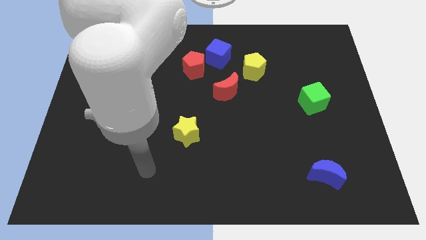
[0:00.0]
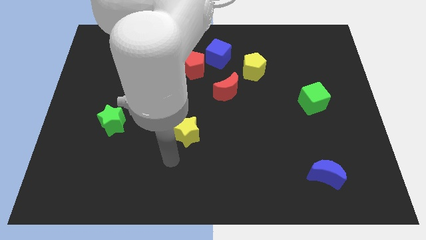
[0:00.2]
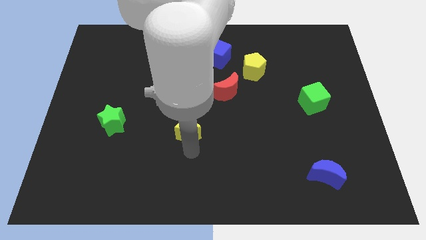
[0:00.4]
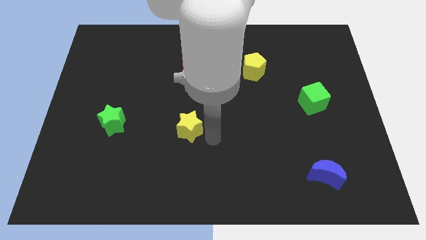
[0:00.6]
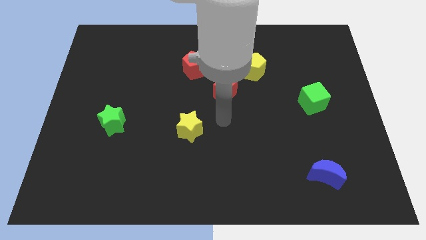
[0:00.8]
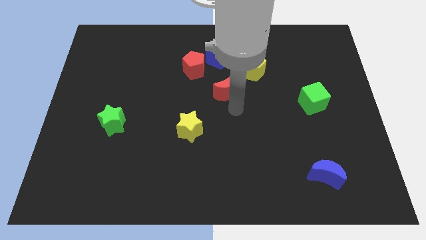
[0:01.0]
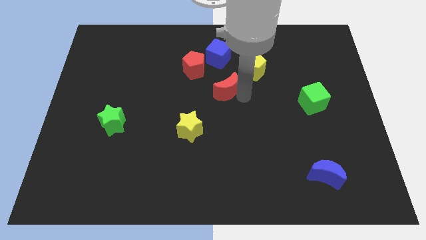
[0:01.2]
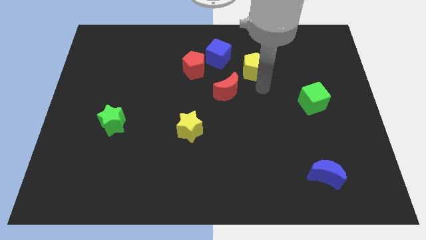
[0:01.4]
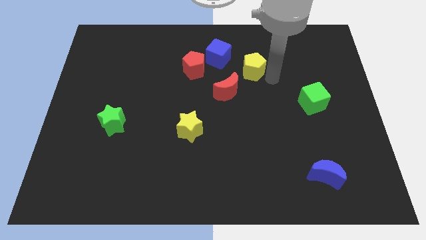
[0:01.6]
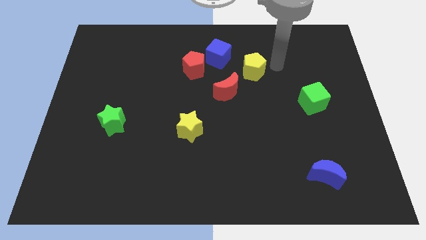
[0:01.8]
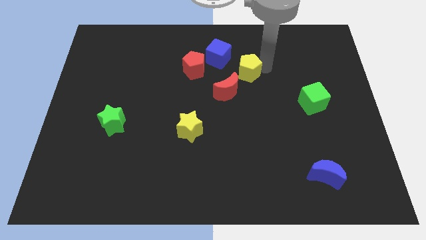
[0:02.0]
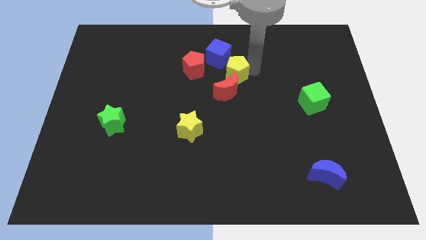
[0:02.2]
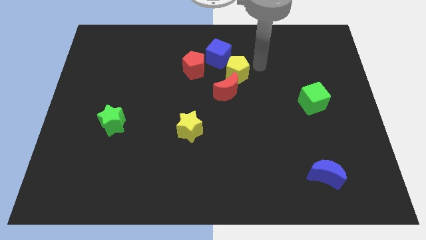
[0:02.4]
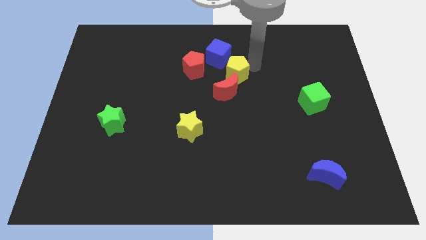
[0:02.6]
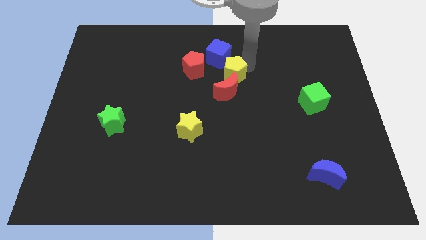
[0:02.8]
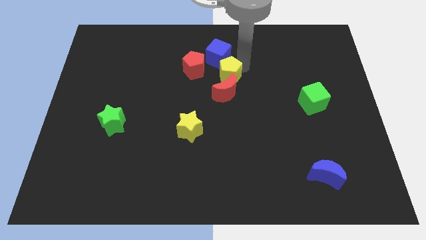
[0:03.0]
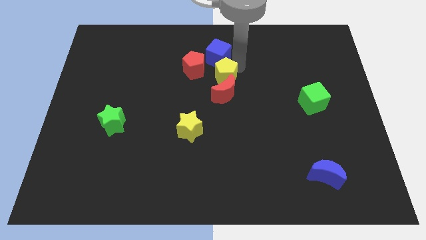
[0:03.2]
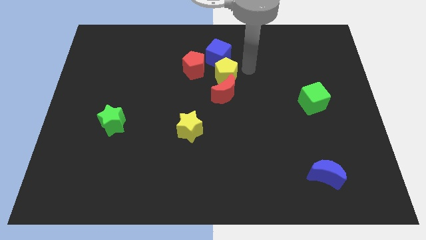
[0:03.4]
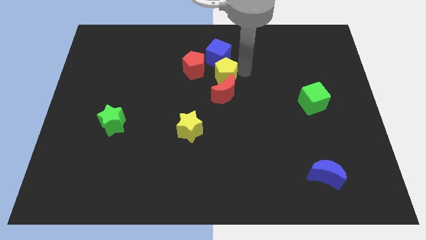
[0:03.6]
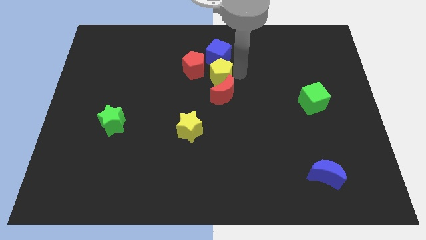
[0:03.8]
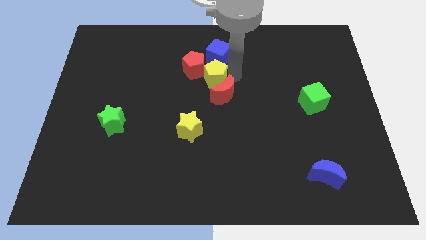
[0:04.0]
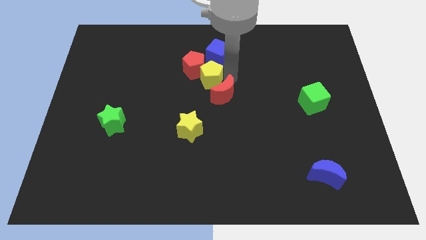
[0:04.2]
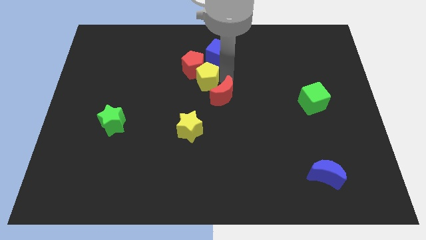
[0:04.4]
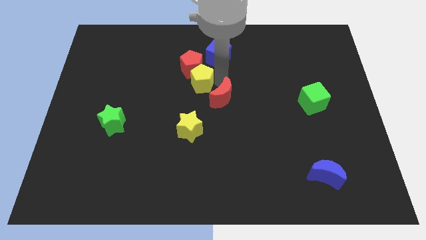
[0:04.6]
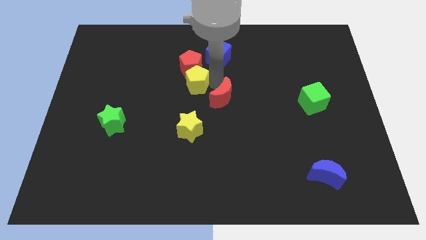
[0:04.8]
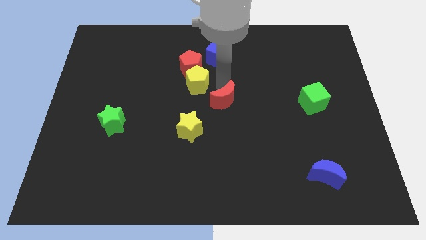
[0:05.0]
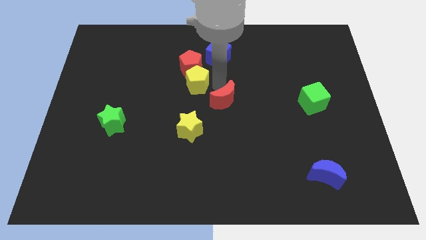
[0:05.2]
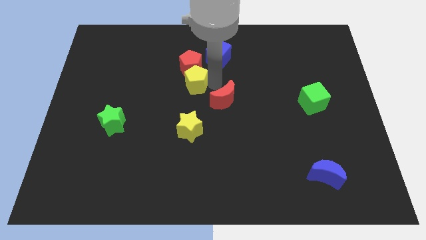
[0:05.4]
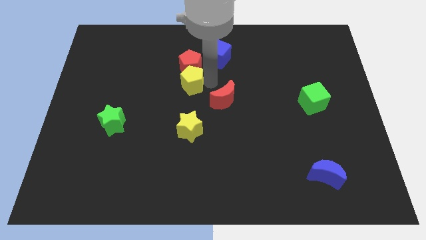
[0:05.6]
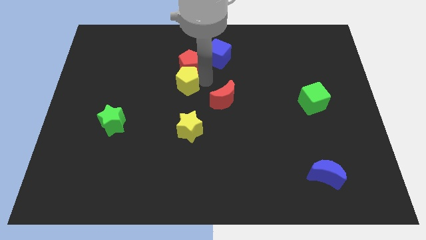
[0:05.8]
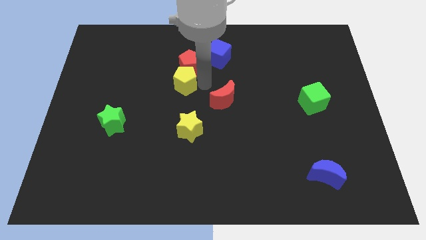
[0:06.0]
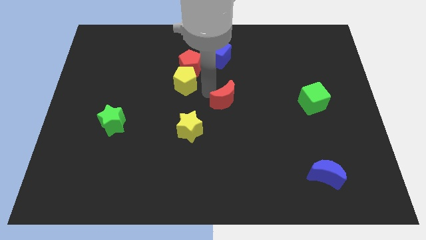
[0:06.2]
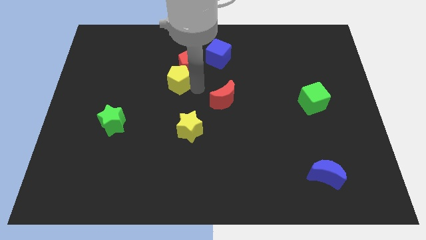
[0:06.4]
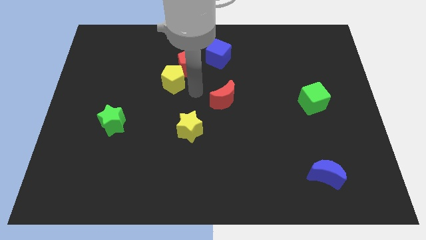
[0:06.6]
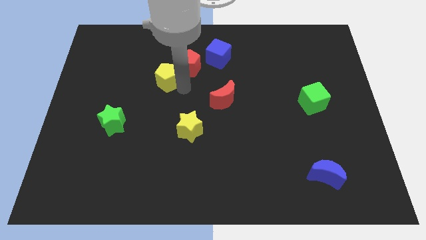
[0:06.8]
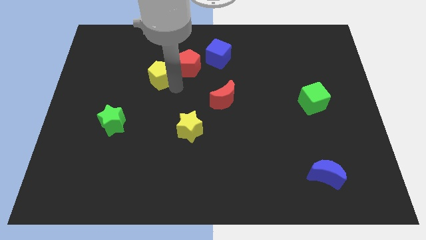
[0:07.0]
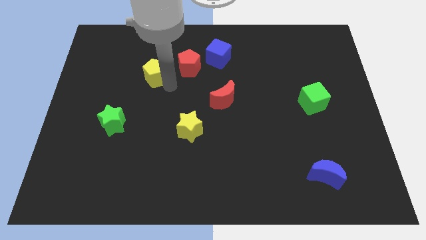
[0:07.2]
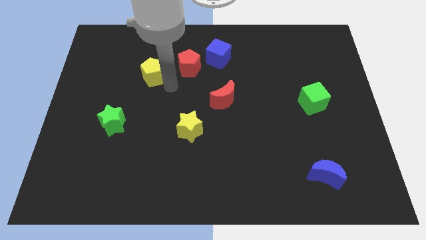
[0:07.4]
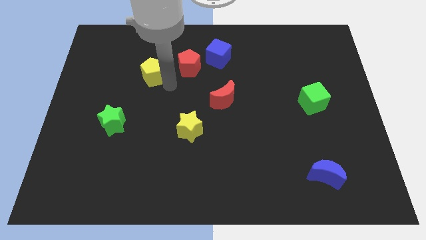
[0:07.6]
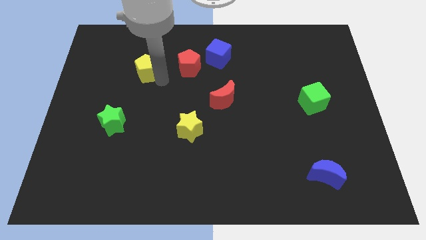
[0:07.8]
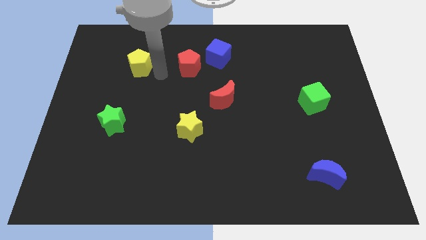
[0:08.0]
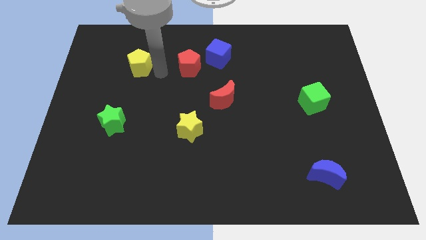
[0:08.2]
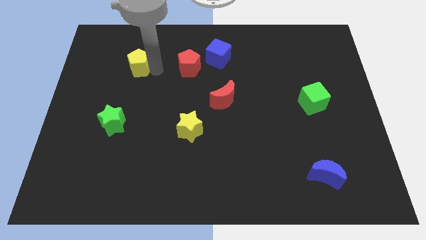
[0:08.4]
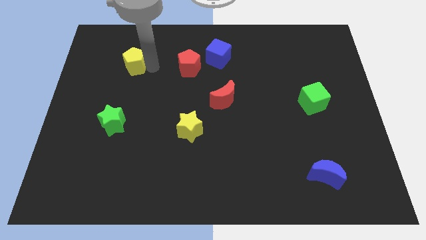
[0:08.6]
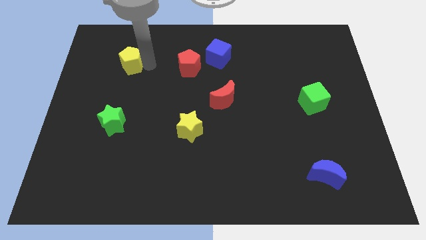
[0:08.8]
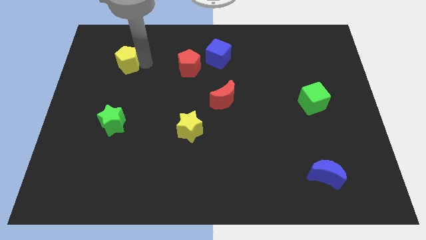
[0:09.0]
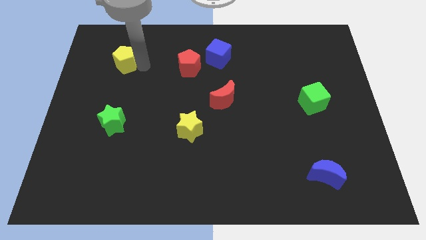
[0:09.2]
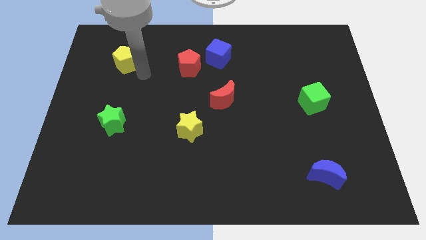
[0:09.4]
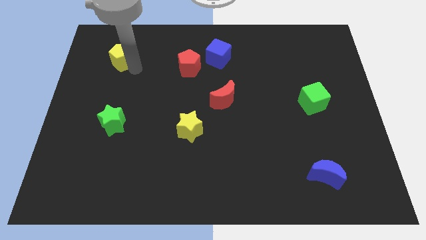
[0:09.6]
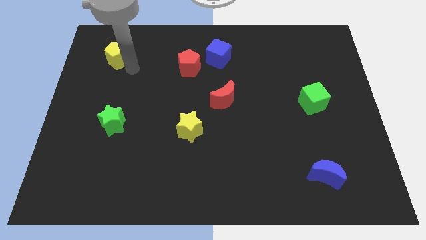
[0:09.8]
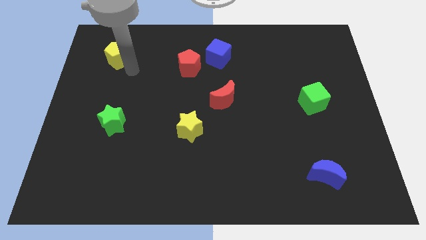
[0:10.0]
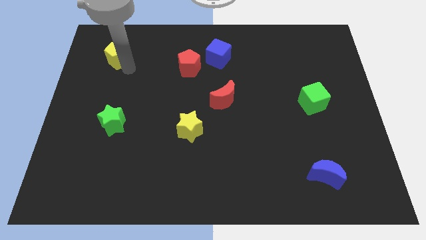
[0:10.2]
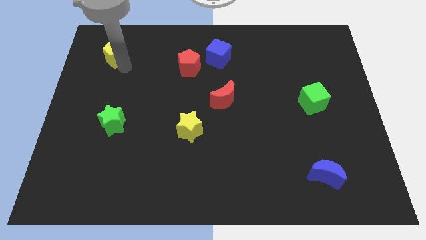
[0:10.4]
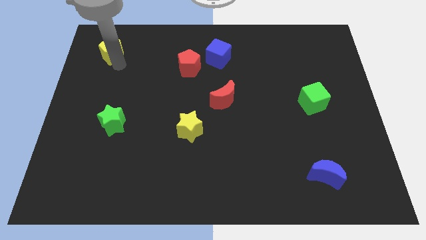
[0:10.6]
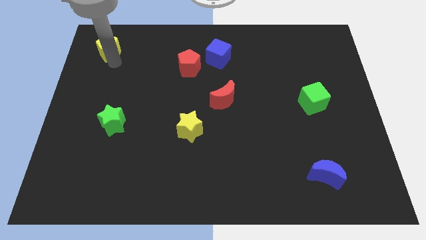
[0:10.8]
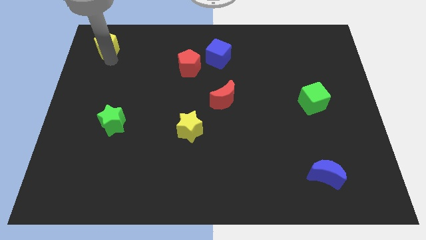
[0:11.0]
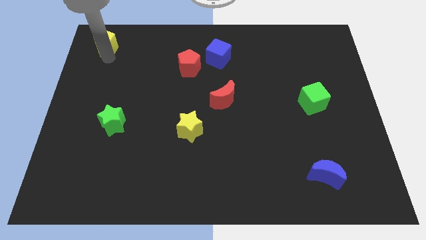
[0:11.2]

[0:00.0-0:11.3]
move the yellow pentagon to the upper left corner

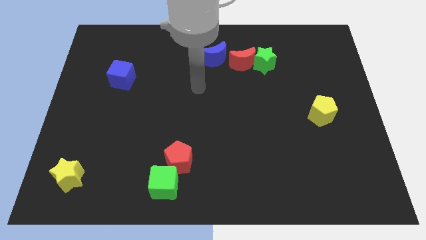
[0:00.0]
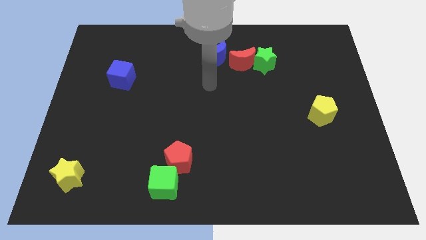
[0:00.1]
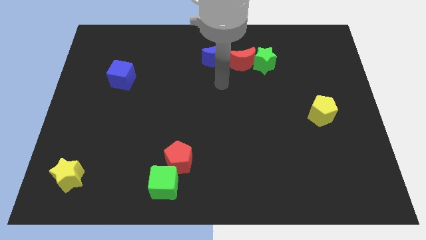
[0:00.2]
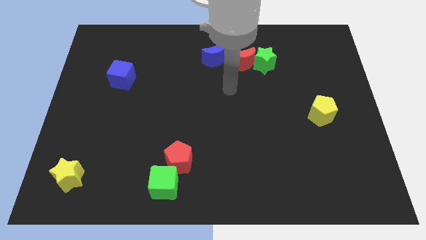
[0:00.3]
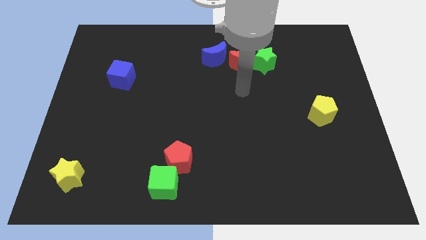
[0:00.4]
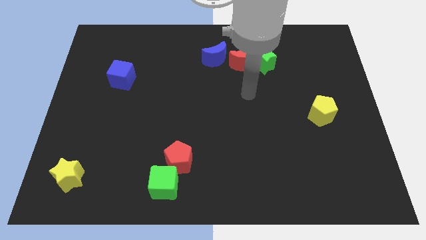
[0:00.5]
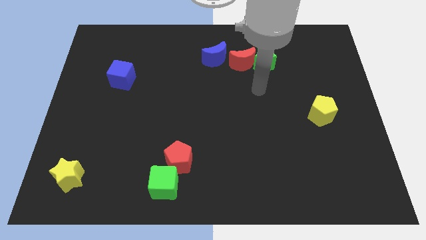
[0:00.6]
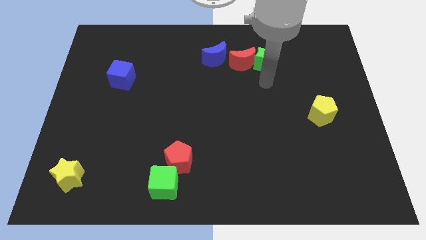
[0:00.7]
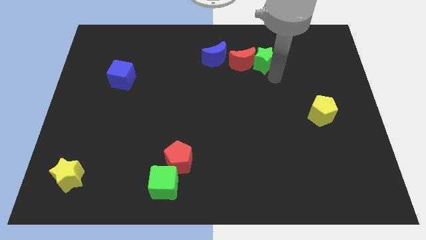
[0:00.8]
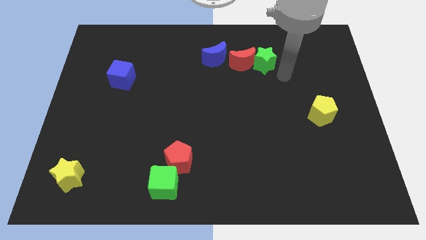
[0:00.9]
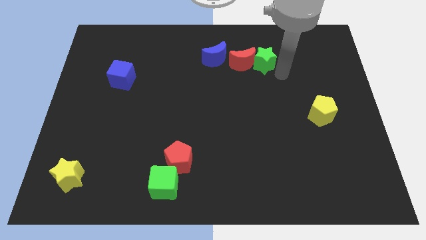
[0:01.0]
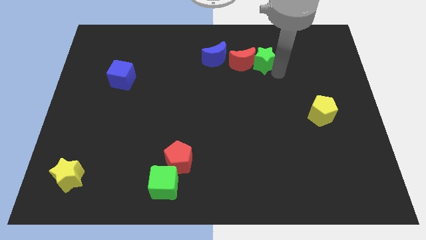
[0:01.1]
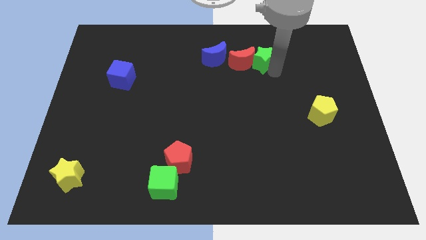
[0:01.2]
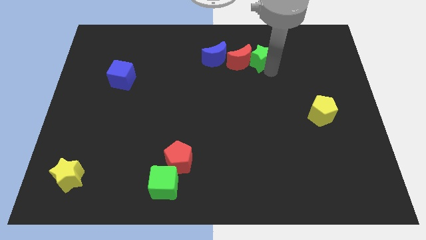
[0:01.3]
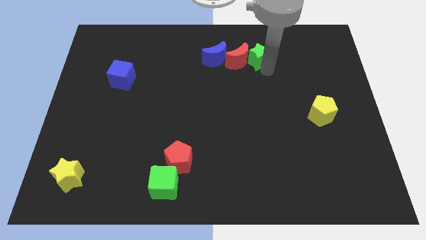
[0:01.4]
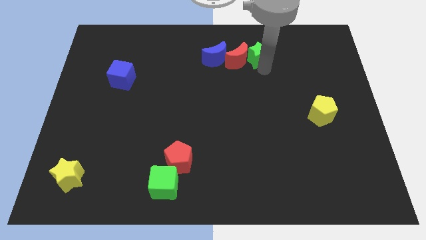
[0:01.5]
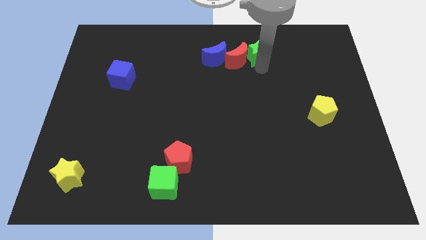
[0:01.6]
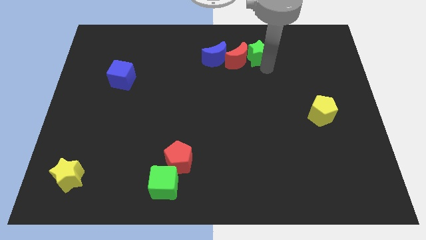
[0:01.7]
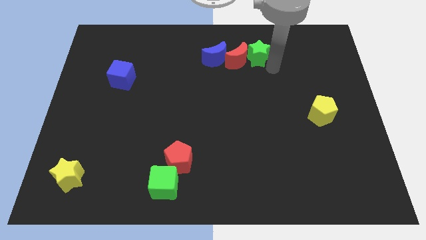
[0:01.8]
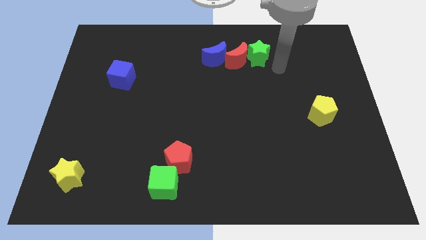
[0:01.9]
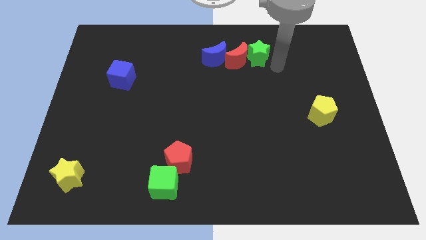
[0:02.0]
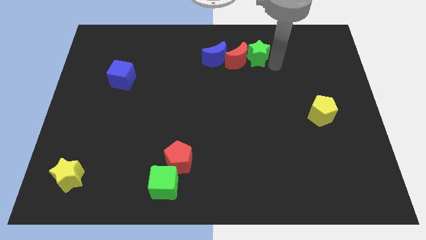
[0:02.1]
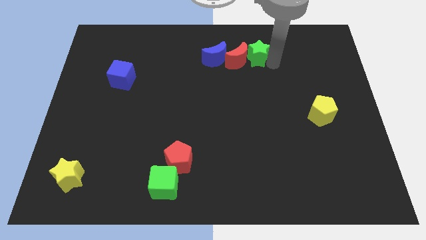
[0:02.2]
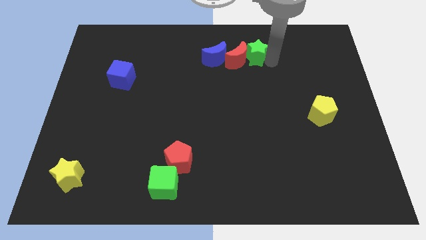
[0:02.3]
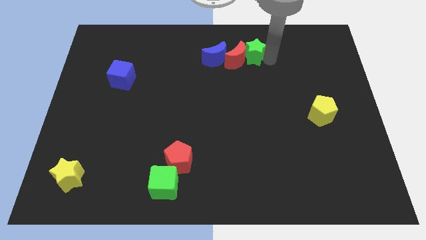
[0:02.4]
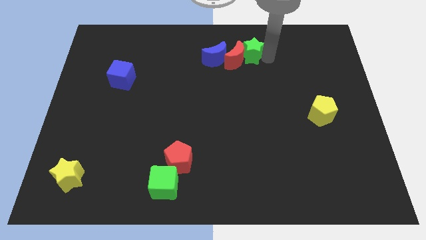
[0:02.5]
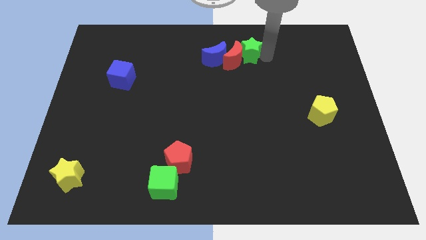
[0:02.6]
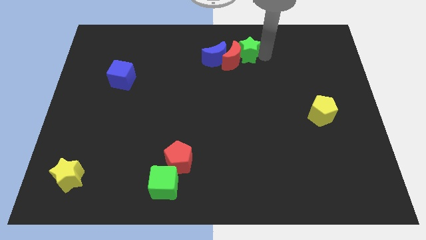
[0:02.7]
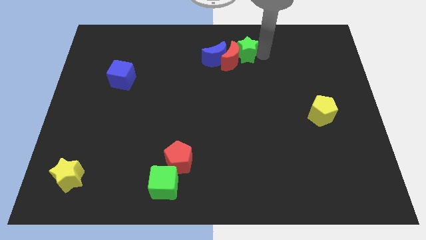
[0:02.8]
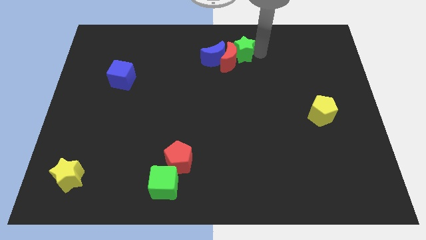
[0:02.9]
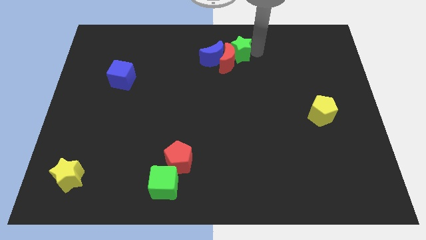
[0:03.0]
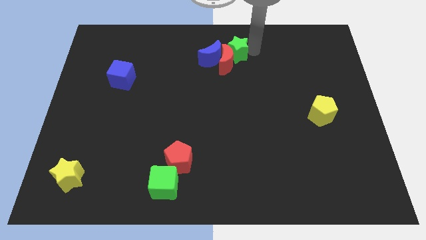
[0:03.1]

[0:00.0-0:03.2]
move the green star to the top
